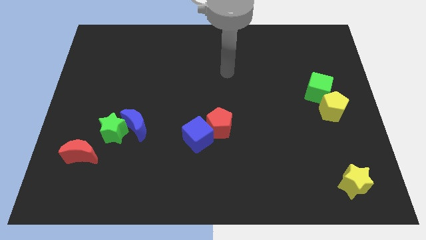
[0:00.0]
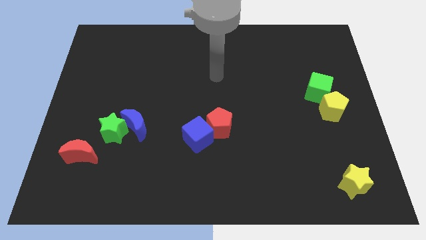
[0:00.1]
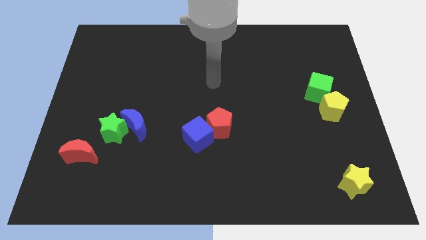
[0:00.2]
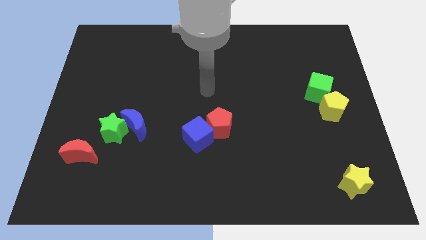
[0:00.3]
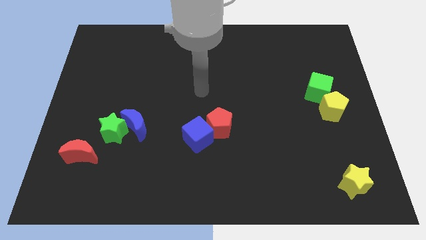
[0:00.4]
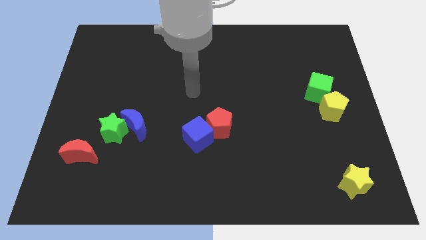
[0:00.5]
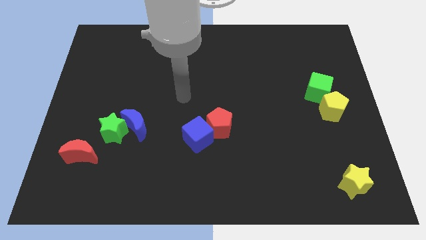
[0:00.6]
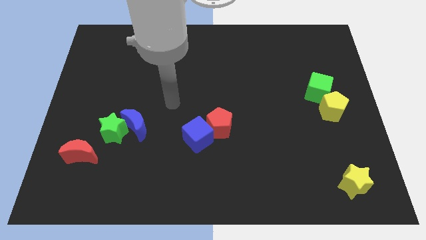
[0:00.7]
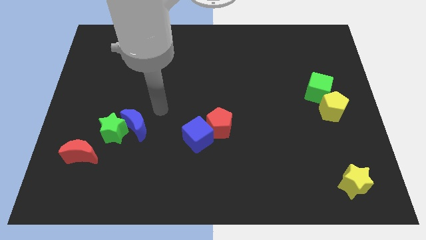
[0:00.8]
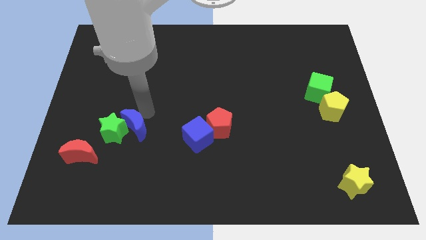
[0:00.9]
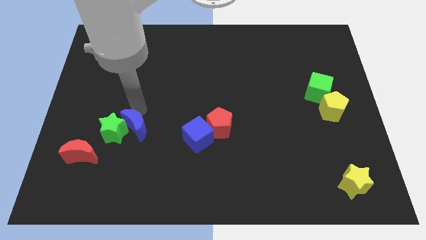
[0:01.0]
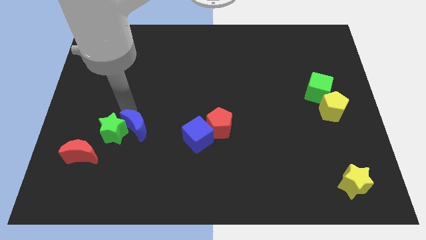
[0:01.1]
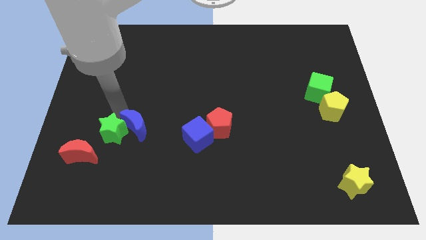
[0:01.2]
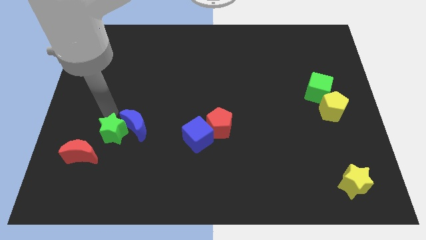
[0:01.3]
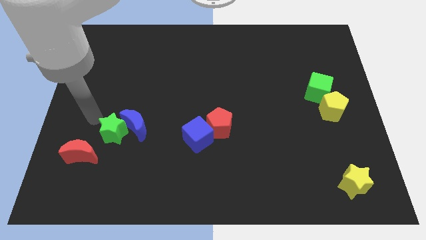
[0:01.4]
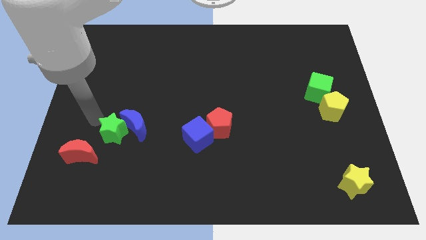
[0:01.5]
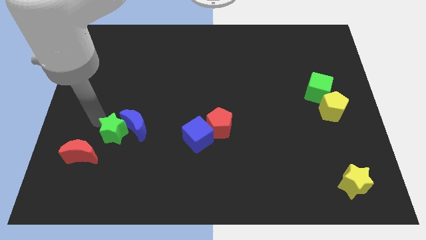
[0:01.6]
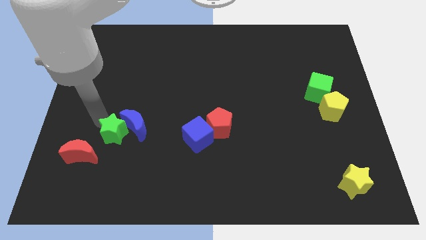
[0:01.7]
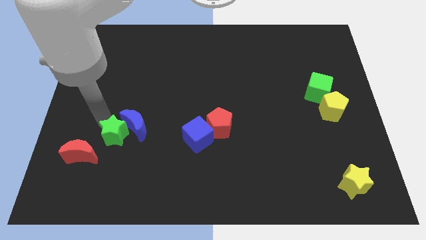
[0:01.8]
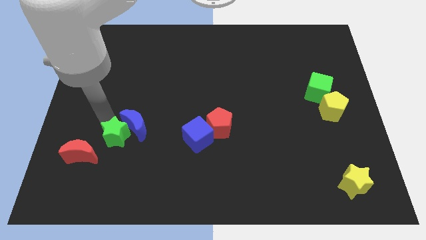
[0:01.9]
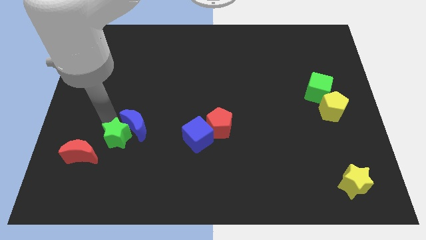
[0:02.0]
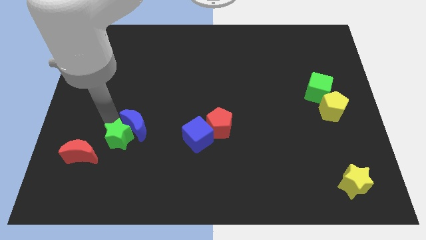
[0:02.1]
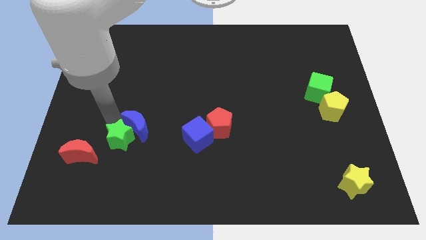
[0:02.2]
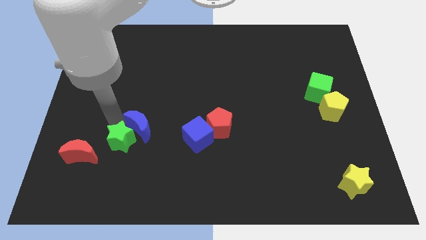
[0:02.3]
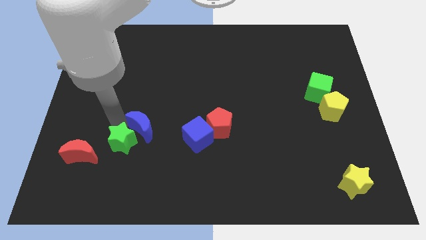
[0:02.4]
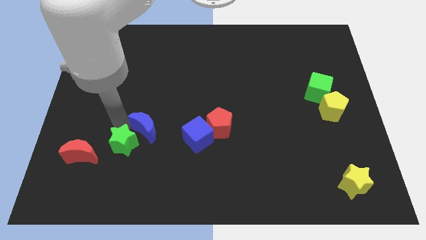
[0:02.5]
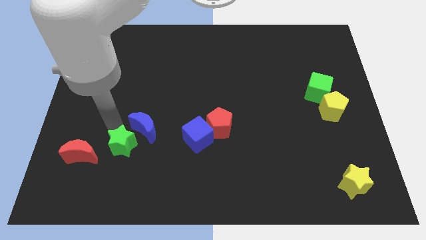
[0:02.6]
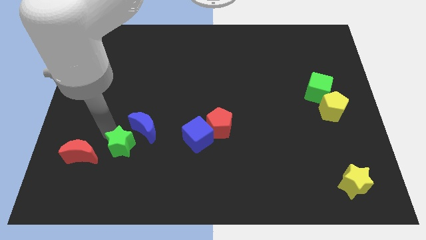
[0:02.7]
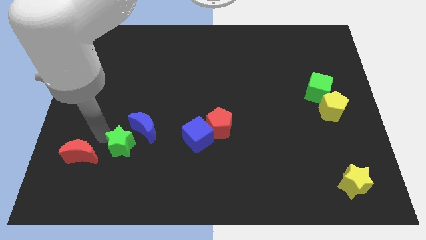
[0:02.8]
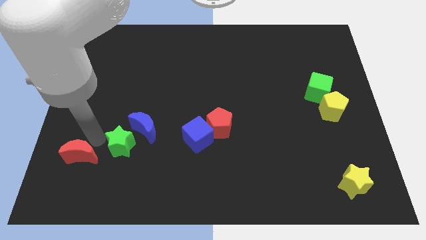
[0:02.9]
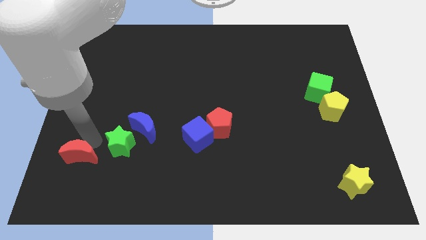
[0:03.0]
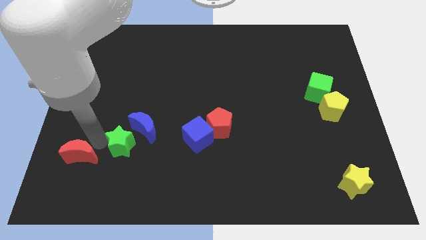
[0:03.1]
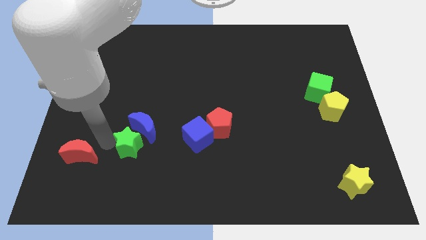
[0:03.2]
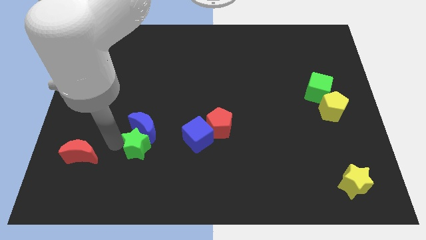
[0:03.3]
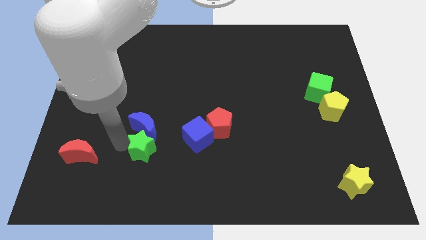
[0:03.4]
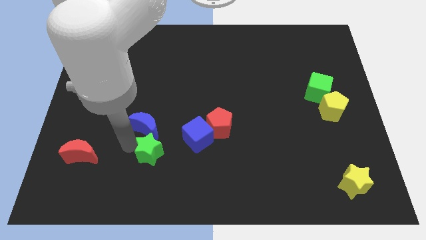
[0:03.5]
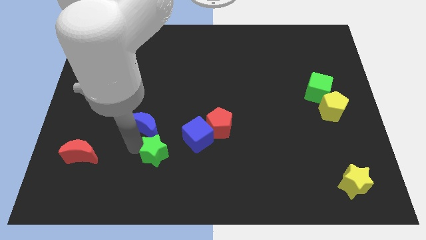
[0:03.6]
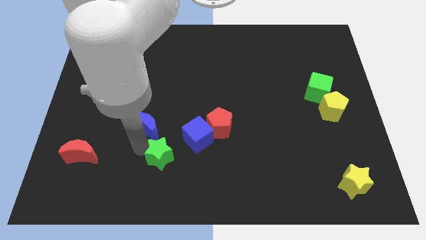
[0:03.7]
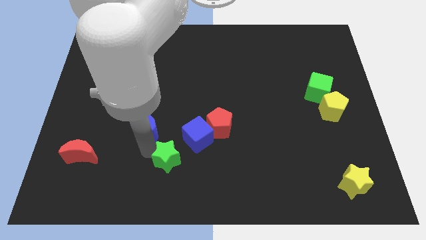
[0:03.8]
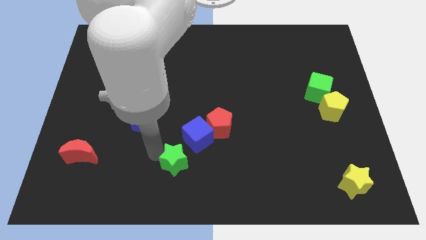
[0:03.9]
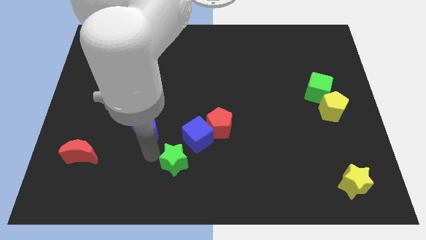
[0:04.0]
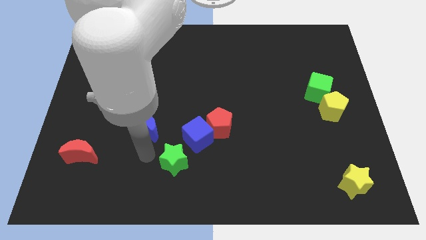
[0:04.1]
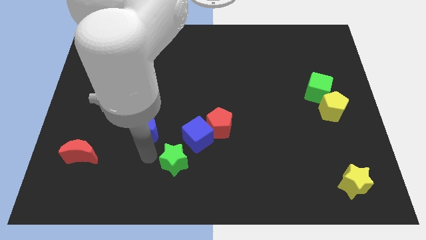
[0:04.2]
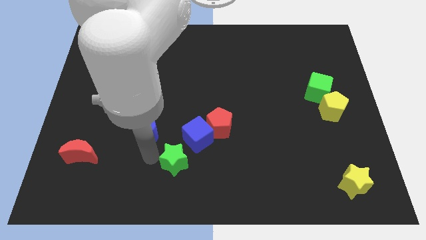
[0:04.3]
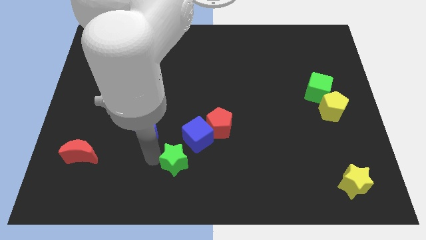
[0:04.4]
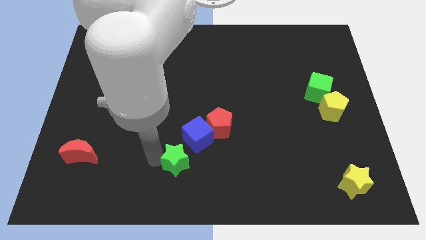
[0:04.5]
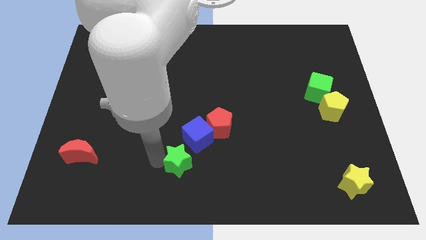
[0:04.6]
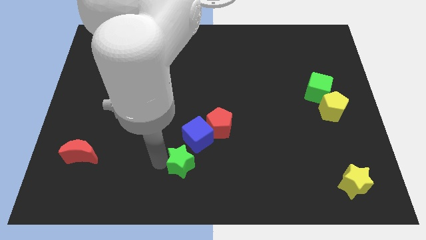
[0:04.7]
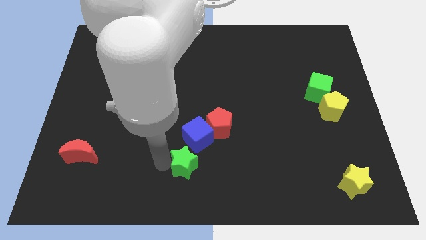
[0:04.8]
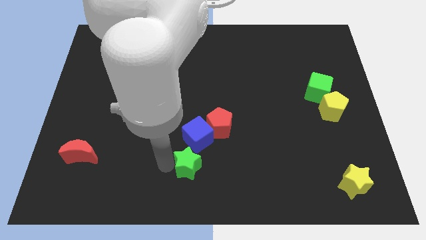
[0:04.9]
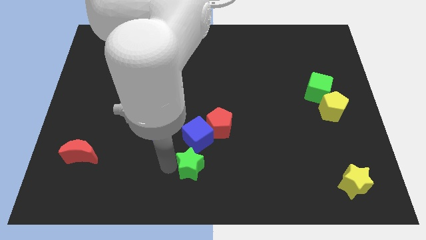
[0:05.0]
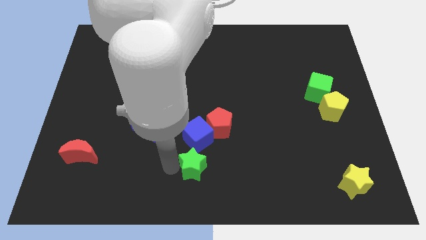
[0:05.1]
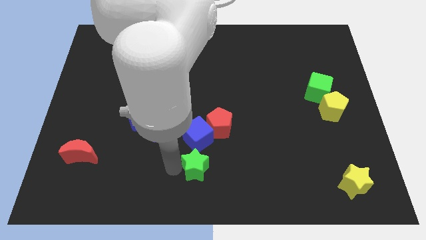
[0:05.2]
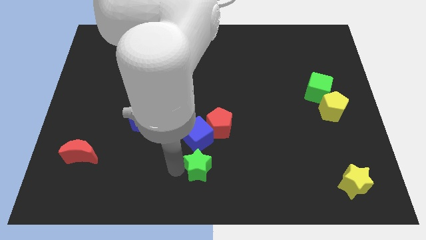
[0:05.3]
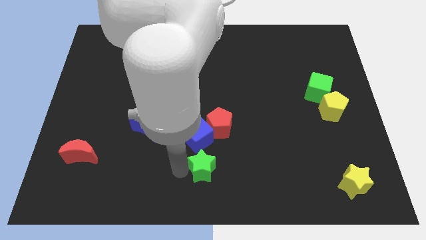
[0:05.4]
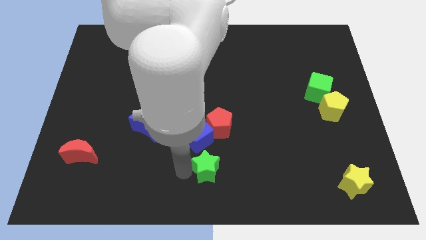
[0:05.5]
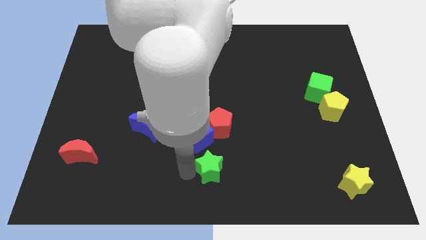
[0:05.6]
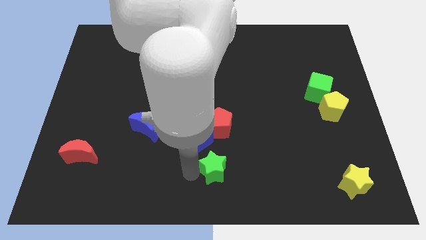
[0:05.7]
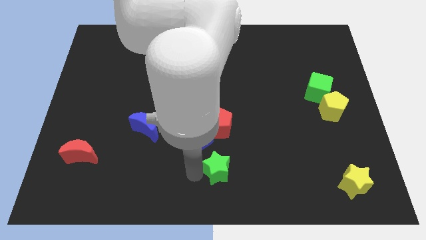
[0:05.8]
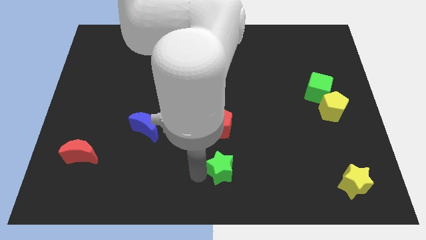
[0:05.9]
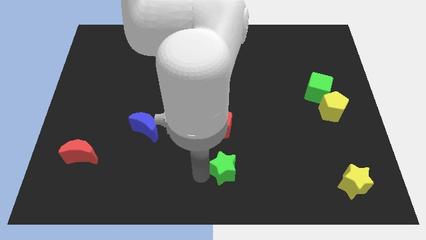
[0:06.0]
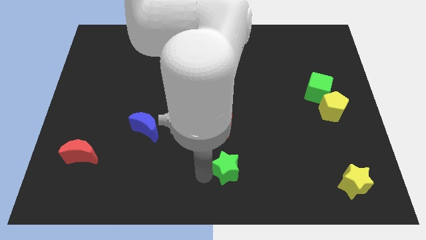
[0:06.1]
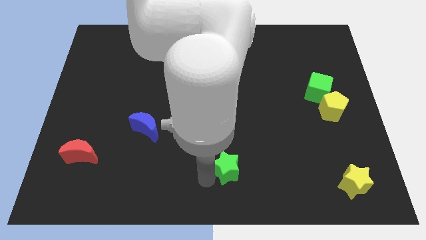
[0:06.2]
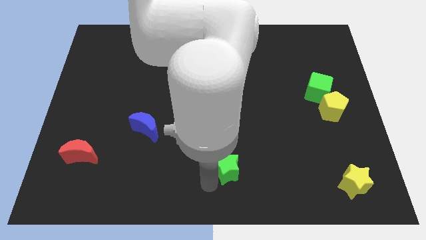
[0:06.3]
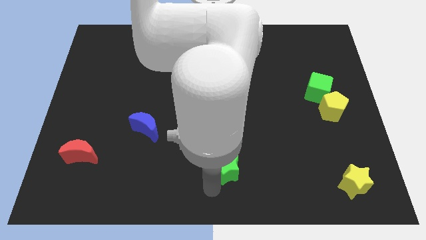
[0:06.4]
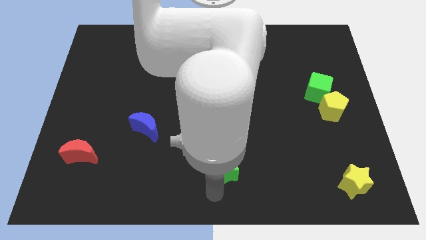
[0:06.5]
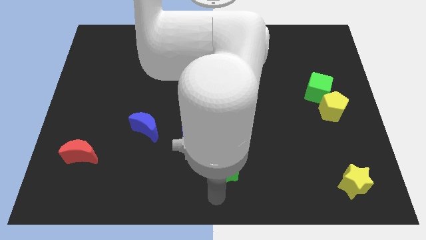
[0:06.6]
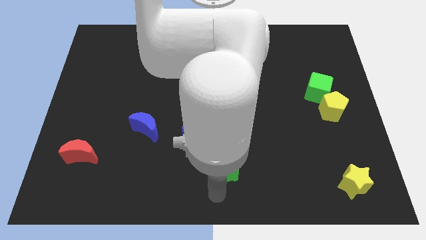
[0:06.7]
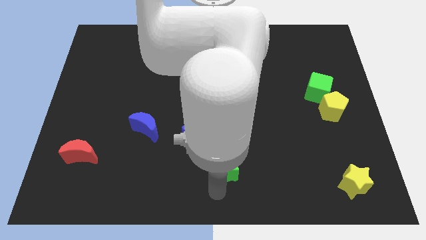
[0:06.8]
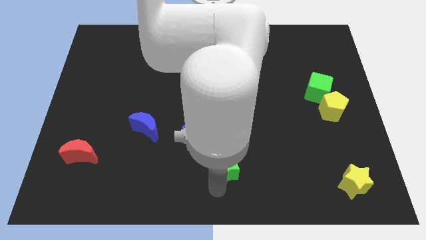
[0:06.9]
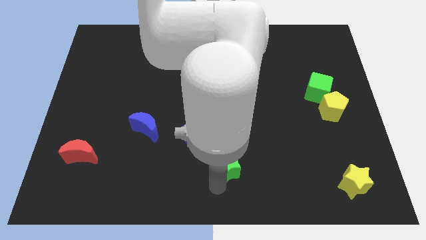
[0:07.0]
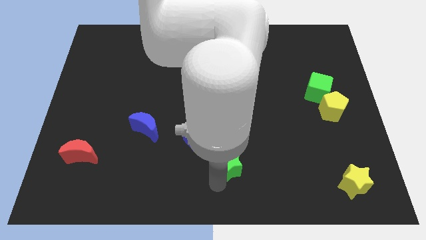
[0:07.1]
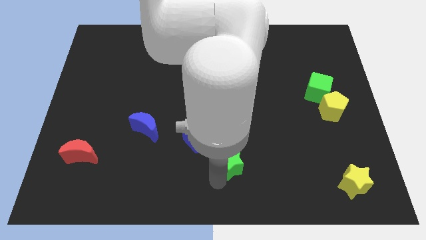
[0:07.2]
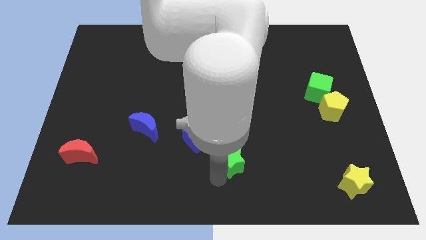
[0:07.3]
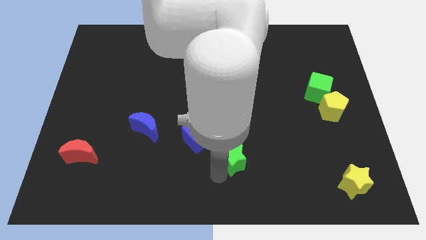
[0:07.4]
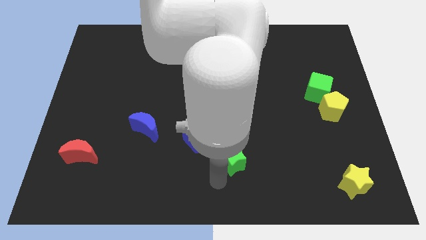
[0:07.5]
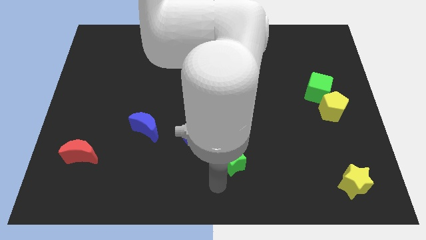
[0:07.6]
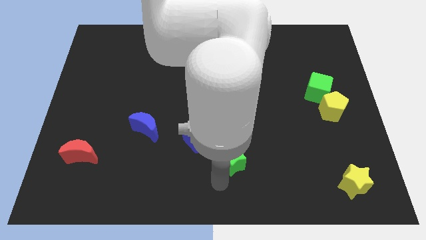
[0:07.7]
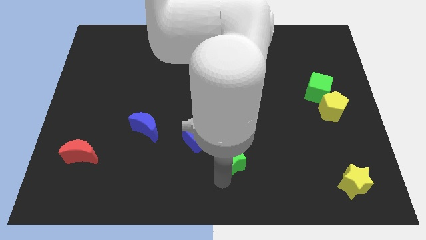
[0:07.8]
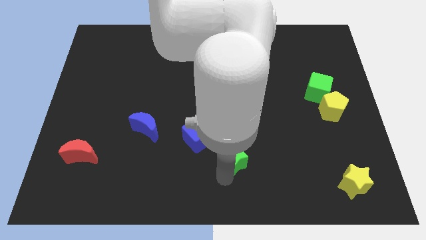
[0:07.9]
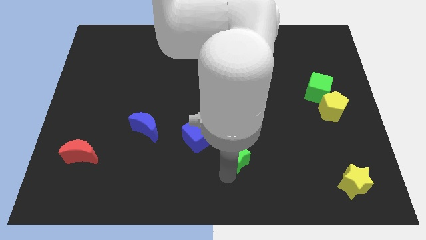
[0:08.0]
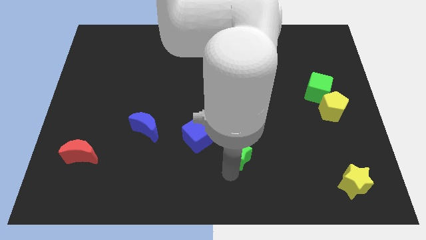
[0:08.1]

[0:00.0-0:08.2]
put the green star to the right side of the blue cube
